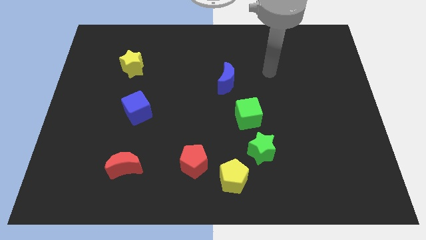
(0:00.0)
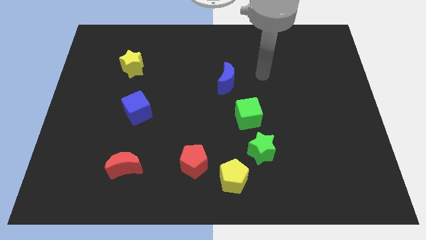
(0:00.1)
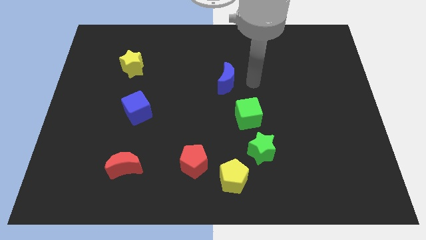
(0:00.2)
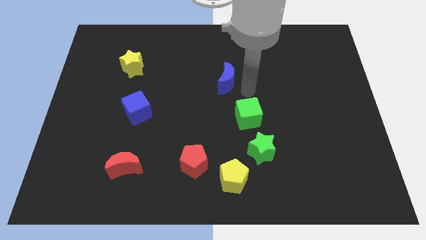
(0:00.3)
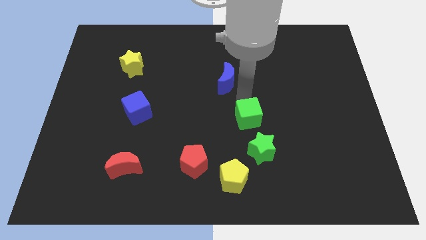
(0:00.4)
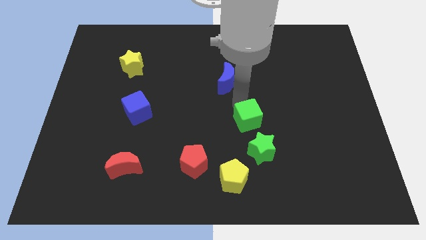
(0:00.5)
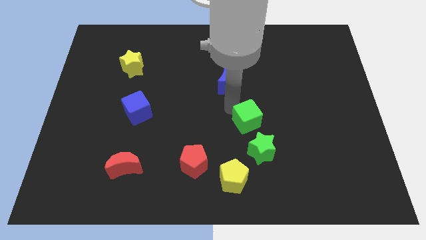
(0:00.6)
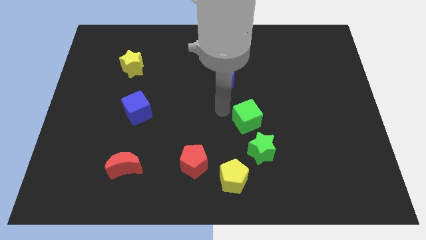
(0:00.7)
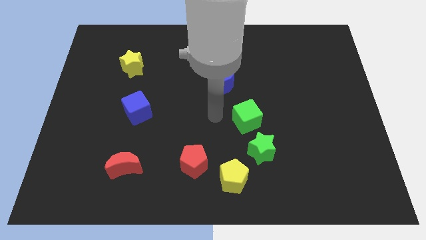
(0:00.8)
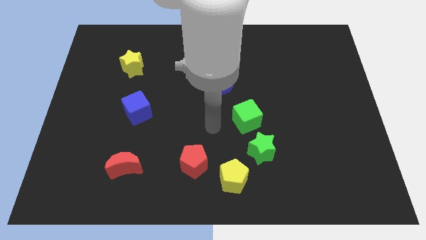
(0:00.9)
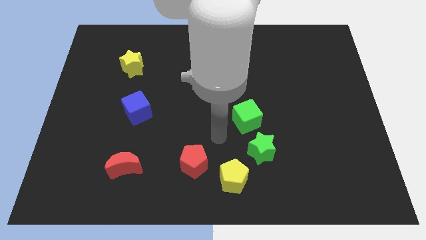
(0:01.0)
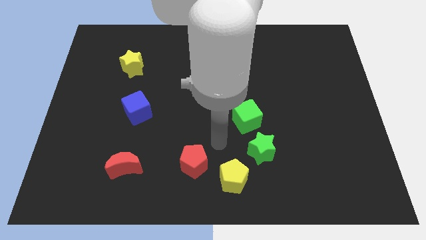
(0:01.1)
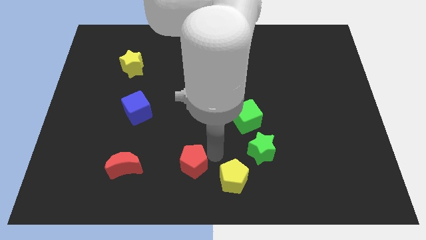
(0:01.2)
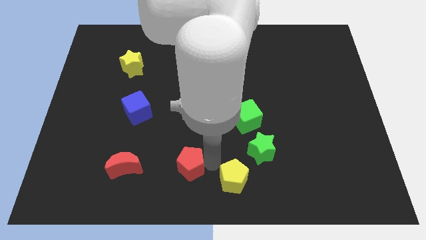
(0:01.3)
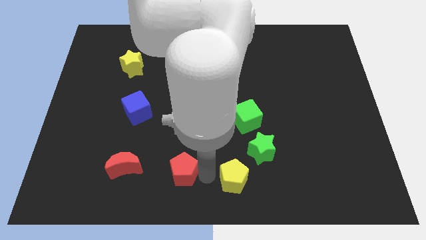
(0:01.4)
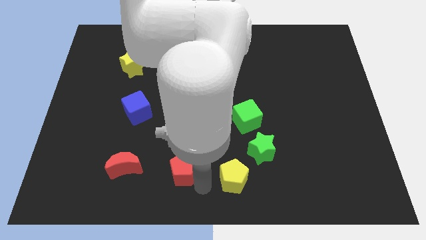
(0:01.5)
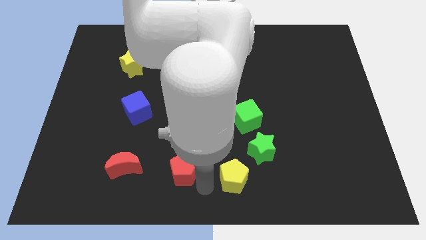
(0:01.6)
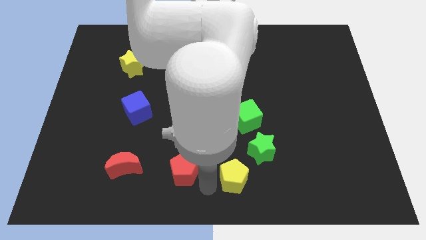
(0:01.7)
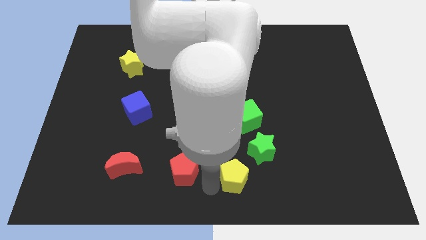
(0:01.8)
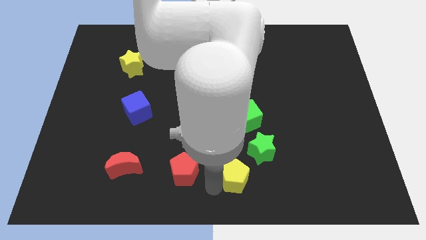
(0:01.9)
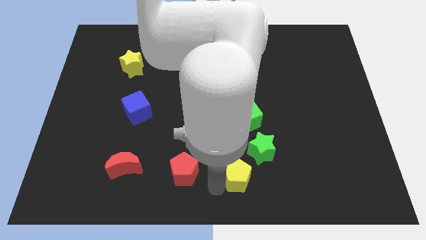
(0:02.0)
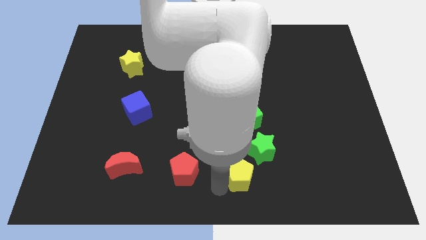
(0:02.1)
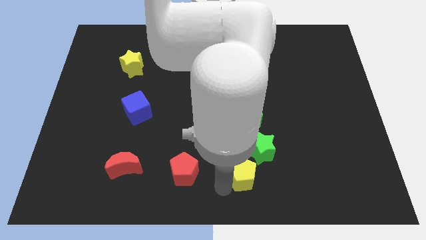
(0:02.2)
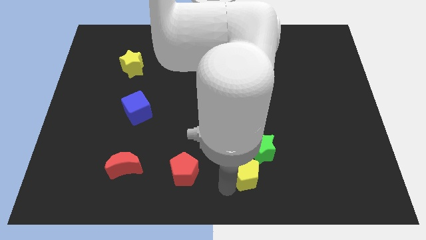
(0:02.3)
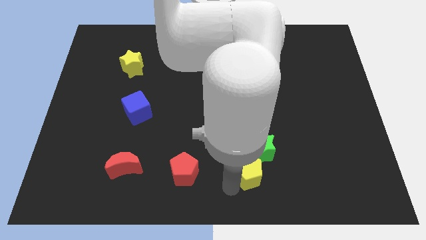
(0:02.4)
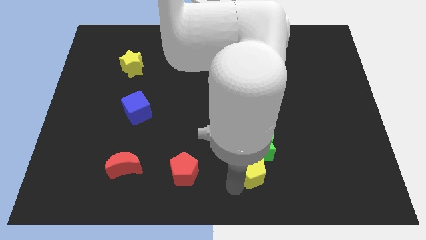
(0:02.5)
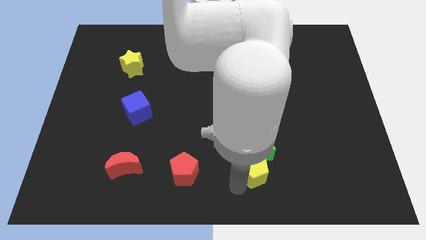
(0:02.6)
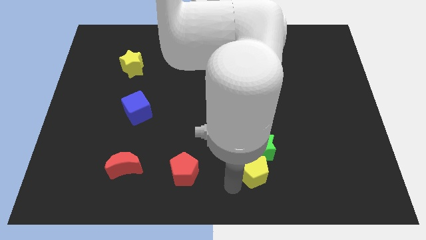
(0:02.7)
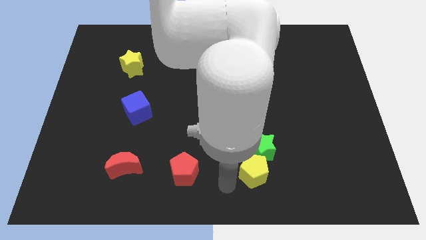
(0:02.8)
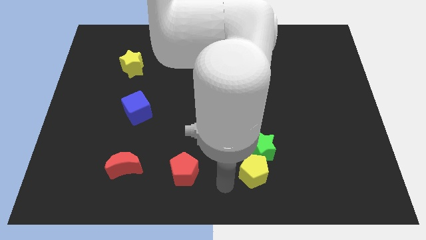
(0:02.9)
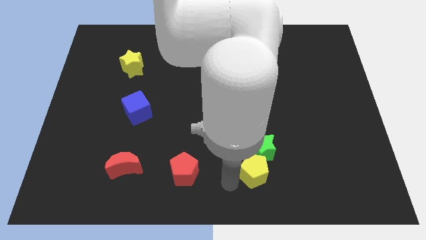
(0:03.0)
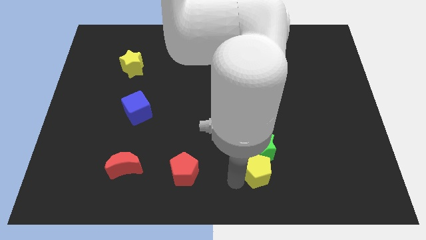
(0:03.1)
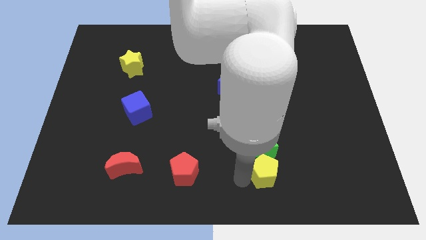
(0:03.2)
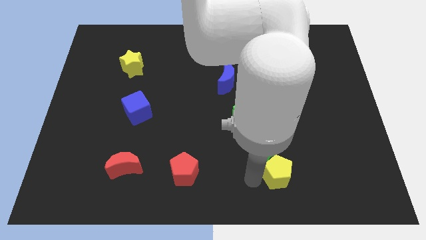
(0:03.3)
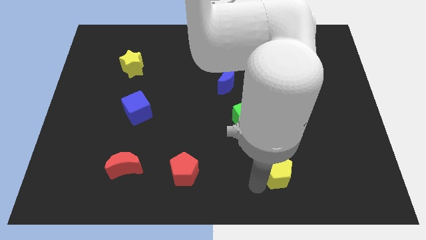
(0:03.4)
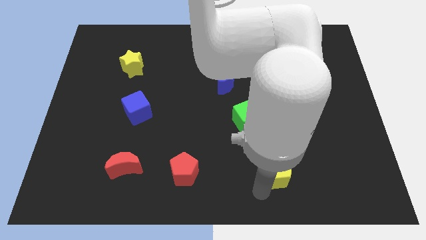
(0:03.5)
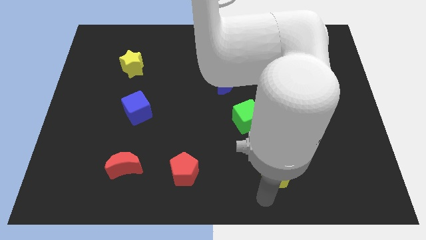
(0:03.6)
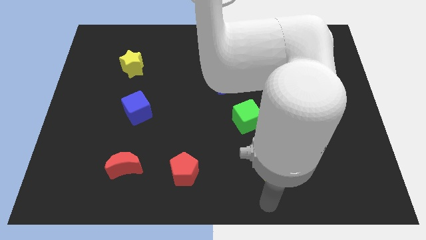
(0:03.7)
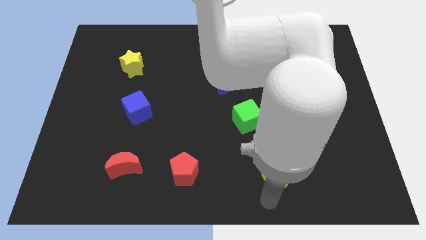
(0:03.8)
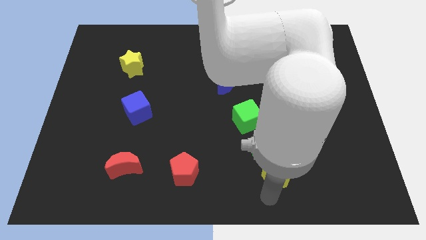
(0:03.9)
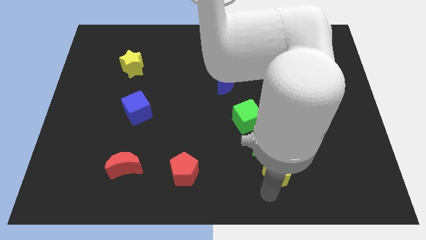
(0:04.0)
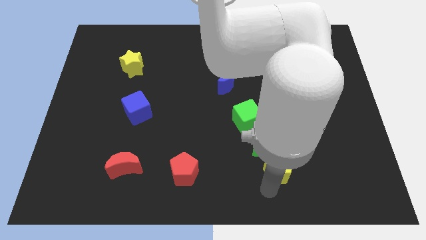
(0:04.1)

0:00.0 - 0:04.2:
push the yellow pentagon diagonally upwards and right a bit

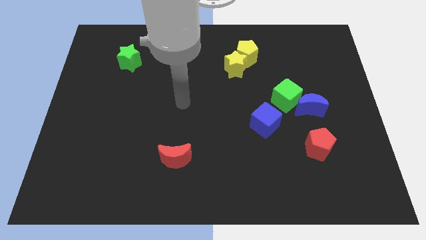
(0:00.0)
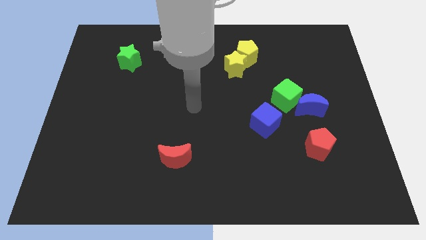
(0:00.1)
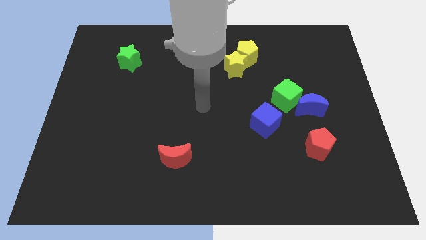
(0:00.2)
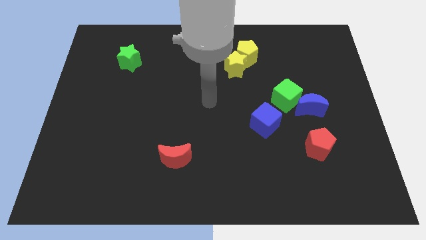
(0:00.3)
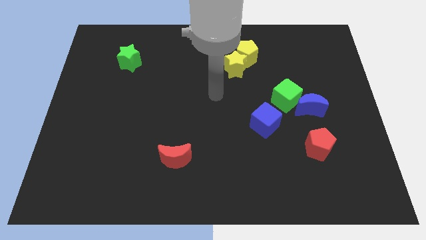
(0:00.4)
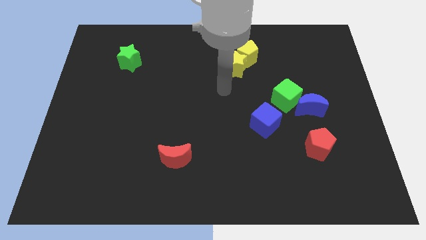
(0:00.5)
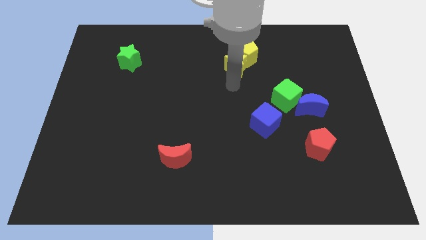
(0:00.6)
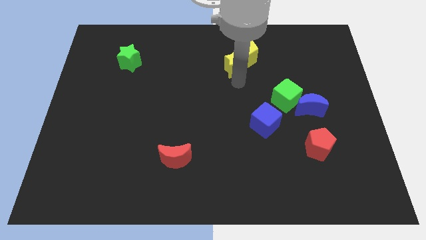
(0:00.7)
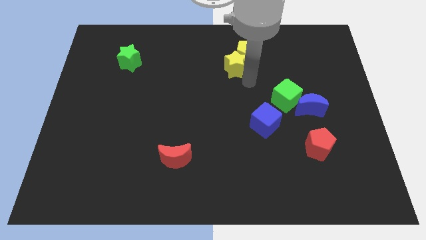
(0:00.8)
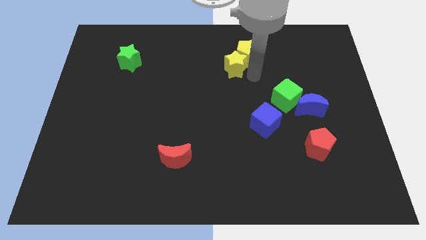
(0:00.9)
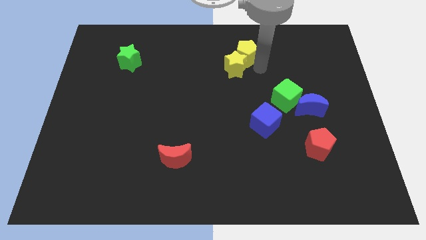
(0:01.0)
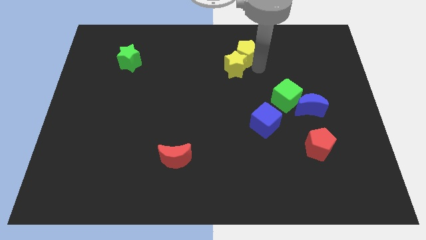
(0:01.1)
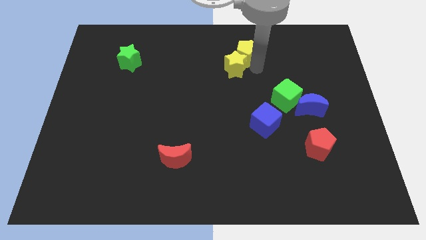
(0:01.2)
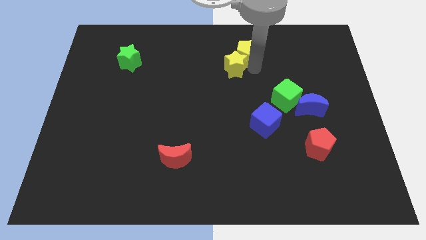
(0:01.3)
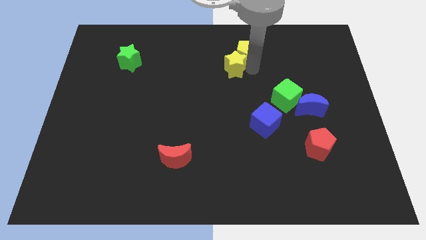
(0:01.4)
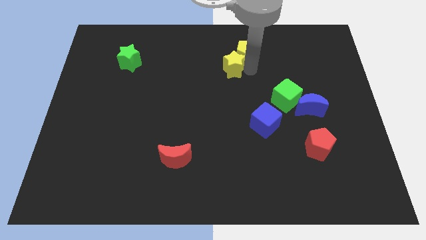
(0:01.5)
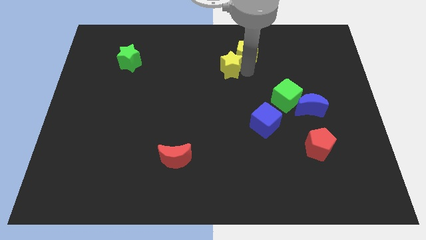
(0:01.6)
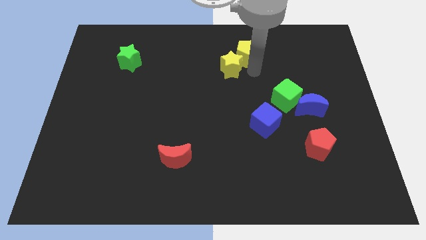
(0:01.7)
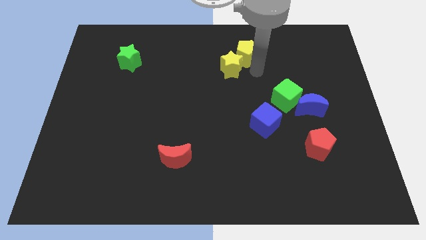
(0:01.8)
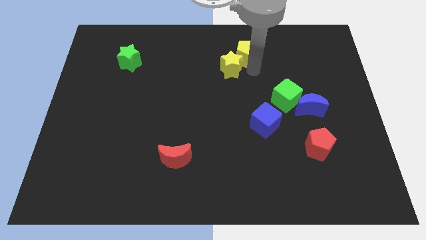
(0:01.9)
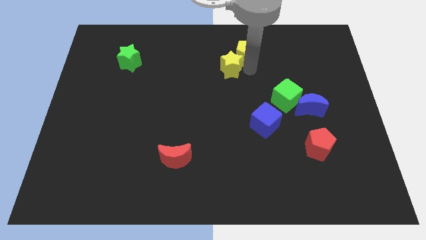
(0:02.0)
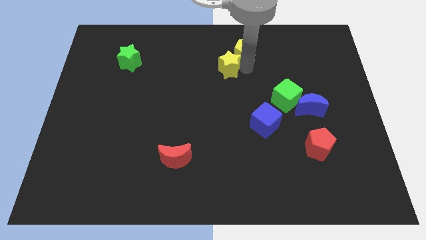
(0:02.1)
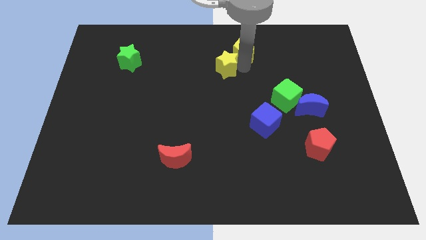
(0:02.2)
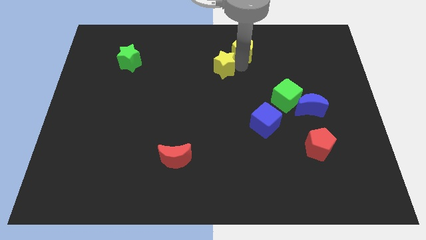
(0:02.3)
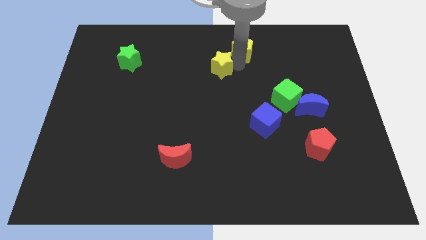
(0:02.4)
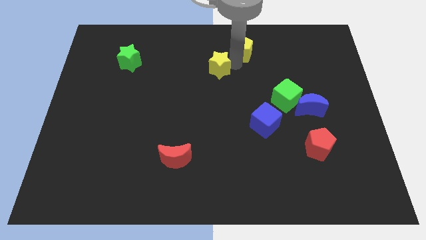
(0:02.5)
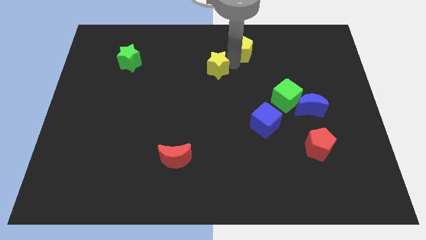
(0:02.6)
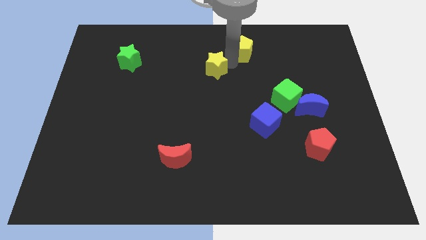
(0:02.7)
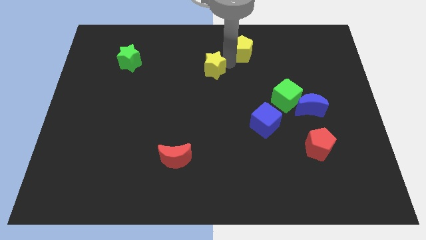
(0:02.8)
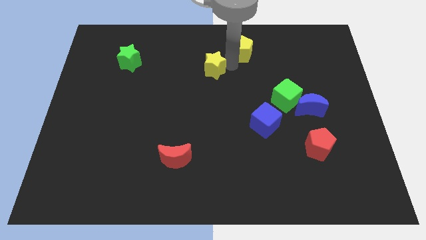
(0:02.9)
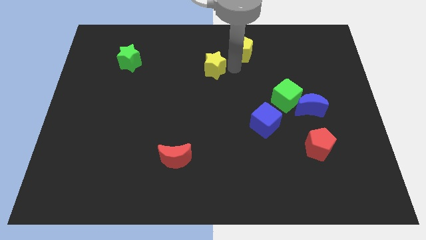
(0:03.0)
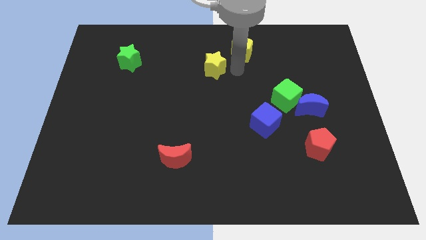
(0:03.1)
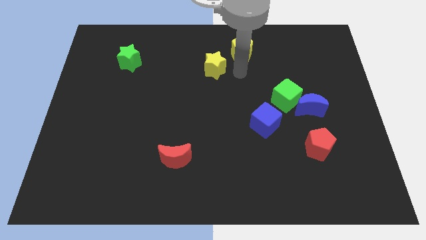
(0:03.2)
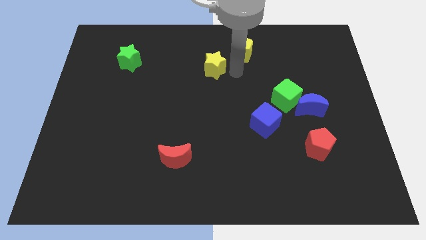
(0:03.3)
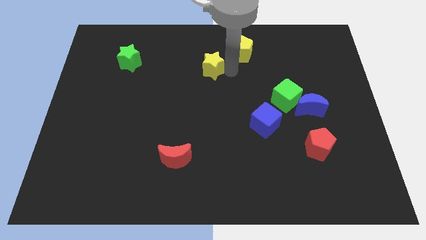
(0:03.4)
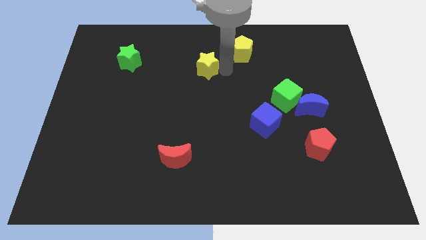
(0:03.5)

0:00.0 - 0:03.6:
push the yellow star a bit left

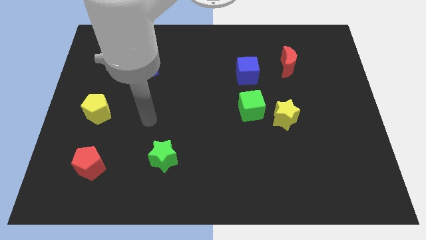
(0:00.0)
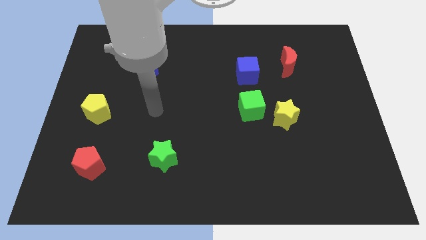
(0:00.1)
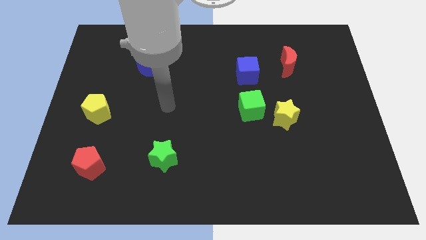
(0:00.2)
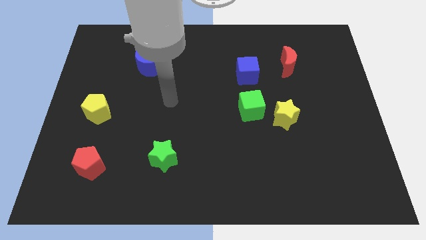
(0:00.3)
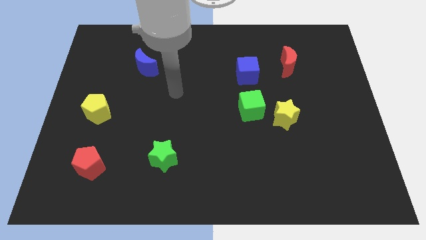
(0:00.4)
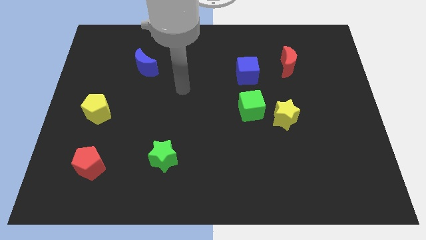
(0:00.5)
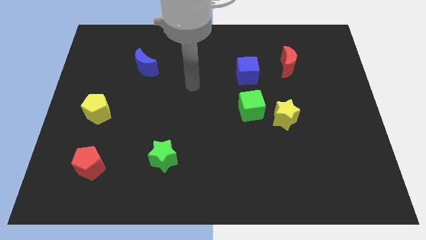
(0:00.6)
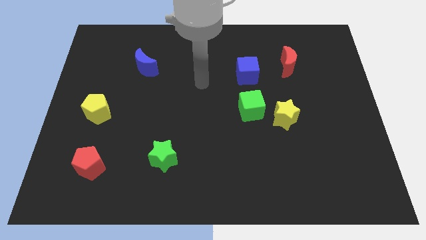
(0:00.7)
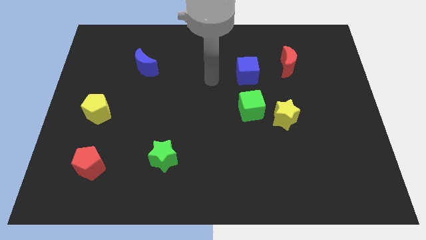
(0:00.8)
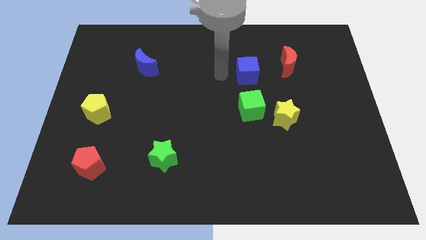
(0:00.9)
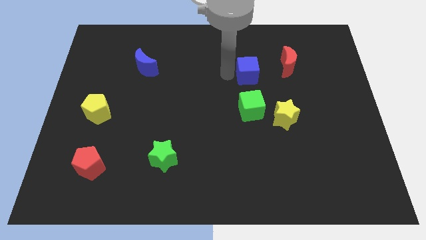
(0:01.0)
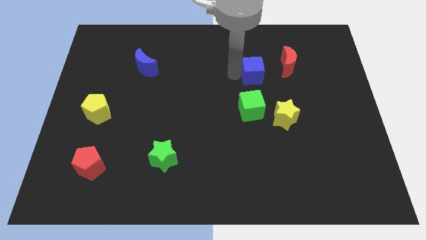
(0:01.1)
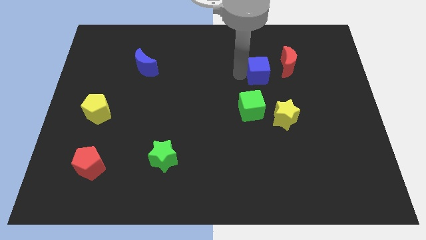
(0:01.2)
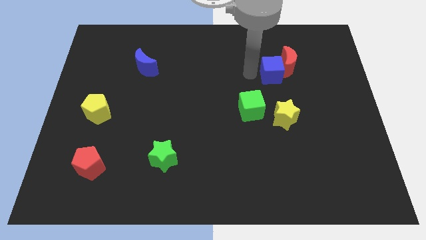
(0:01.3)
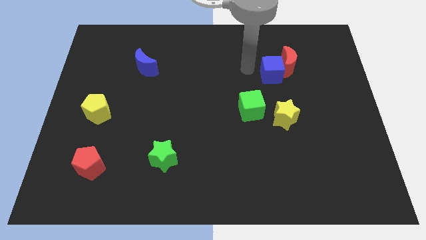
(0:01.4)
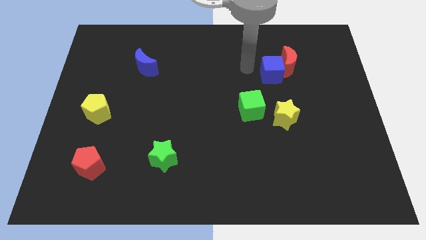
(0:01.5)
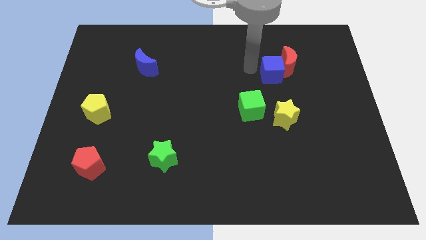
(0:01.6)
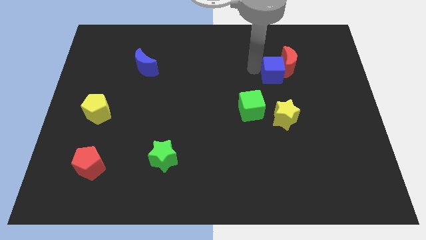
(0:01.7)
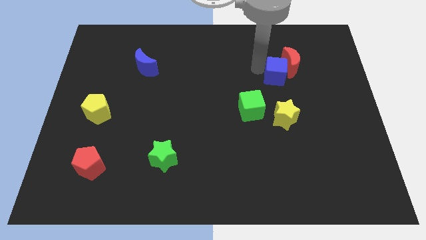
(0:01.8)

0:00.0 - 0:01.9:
slightly move the blue cube to the right
